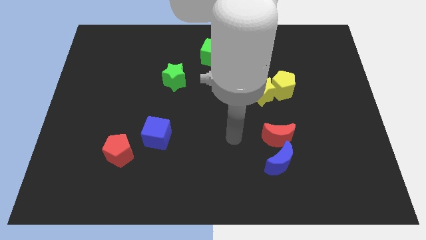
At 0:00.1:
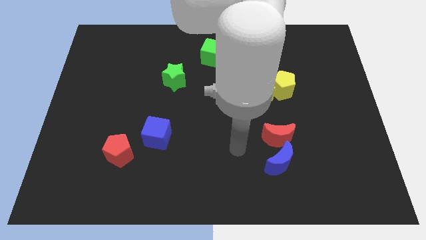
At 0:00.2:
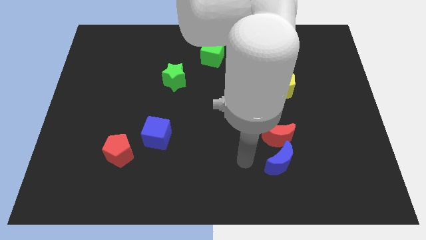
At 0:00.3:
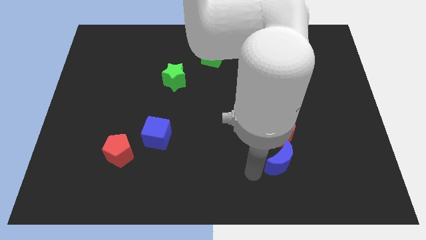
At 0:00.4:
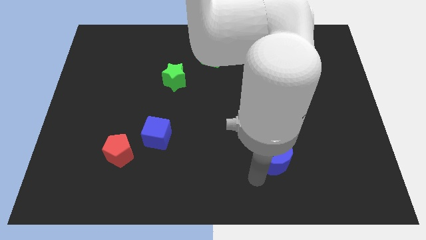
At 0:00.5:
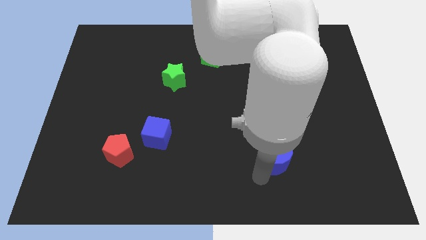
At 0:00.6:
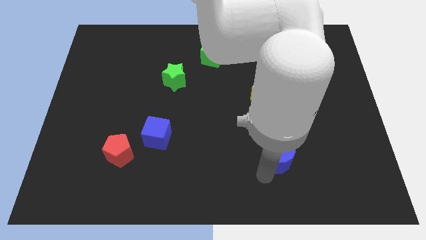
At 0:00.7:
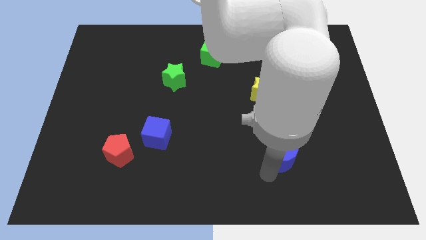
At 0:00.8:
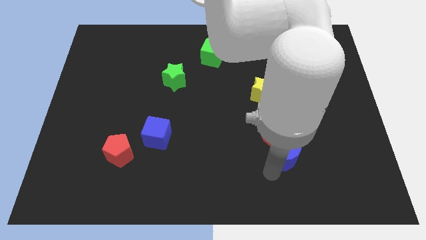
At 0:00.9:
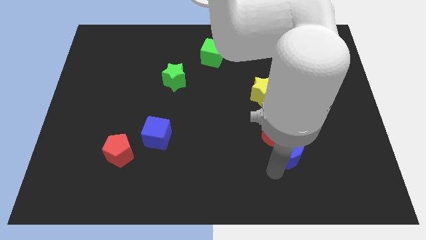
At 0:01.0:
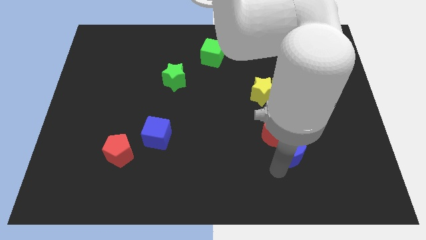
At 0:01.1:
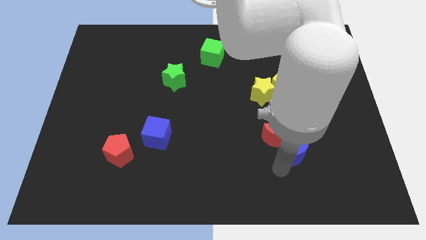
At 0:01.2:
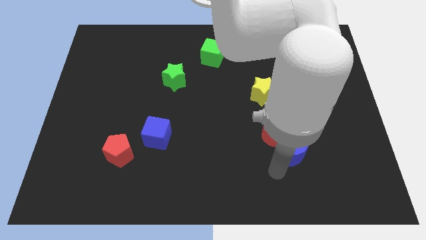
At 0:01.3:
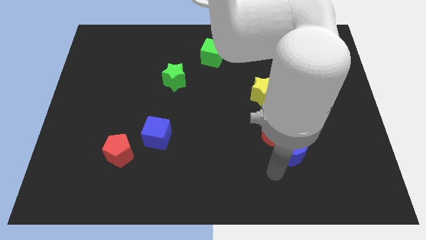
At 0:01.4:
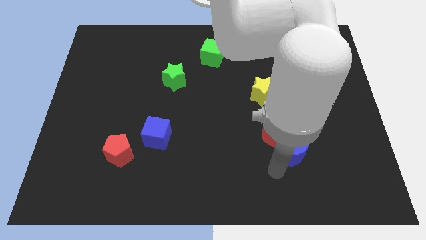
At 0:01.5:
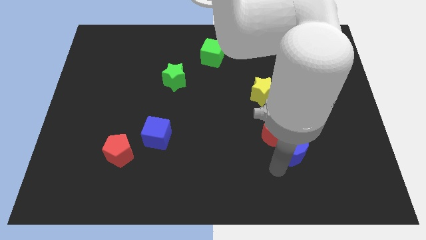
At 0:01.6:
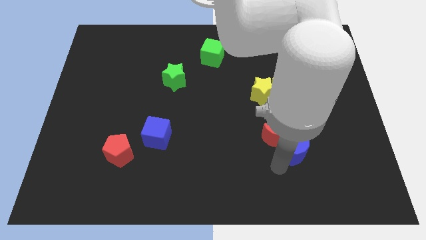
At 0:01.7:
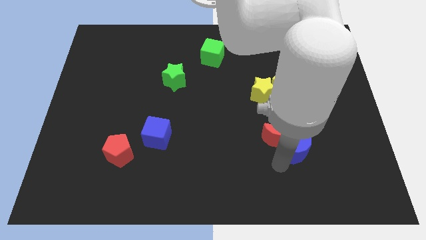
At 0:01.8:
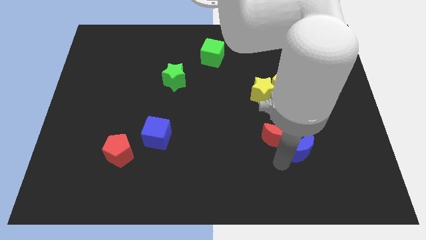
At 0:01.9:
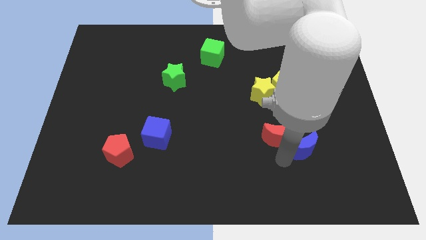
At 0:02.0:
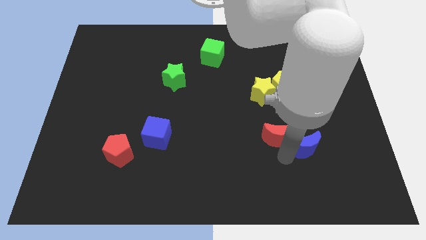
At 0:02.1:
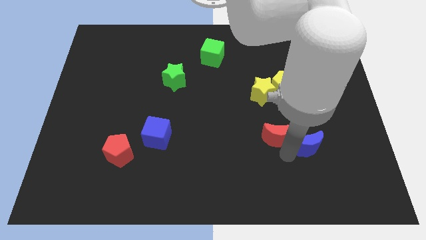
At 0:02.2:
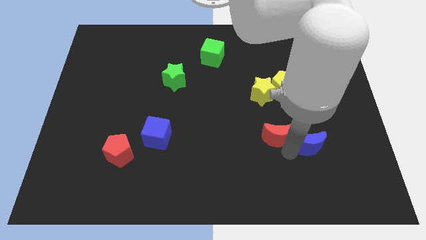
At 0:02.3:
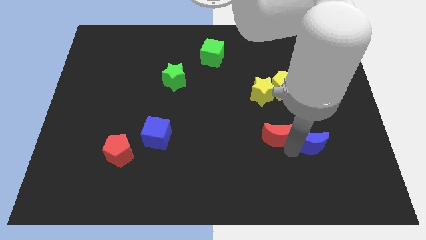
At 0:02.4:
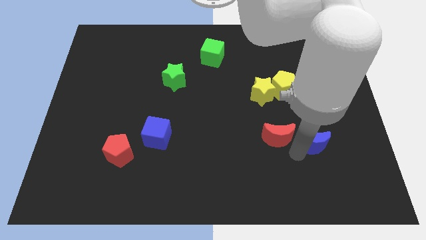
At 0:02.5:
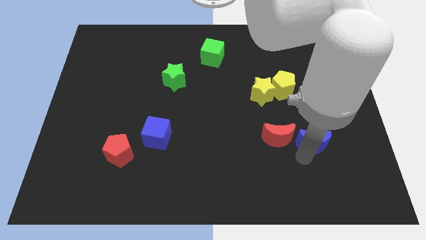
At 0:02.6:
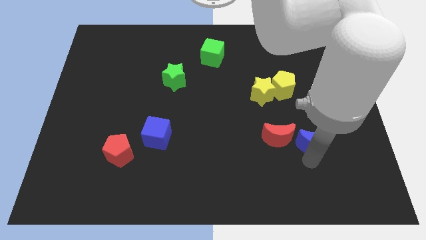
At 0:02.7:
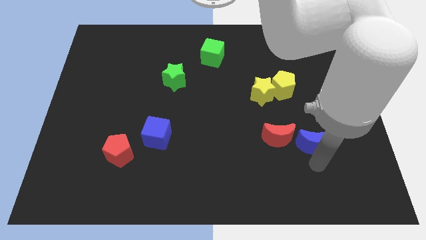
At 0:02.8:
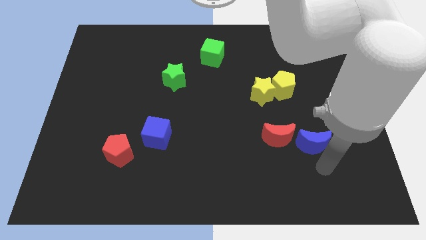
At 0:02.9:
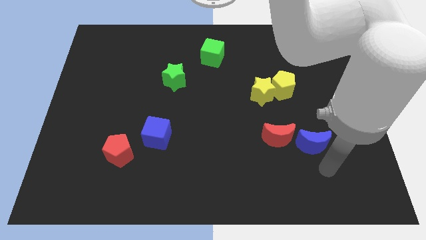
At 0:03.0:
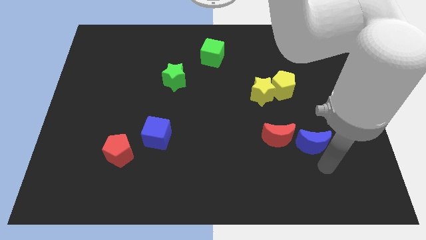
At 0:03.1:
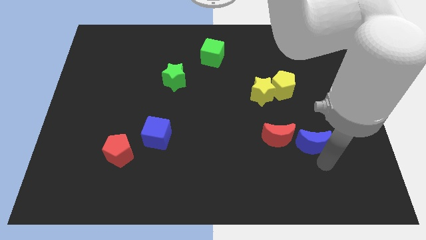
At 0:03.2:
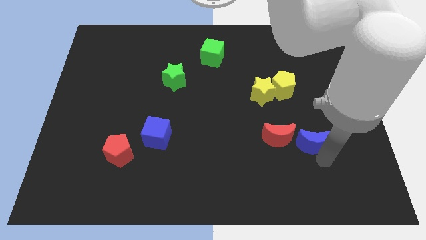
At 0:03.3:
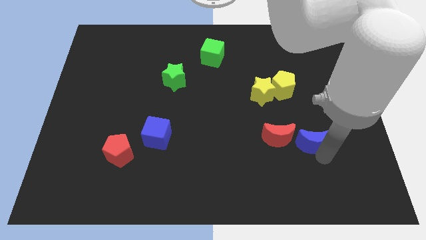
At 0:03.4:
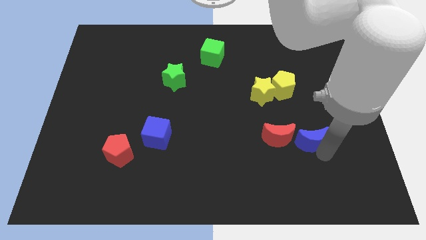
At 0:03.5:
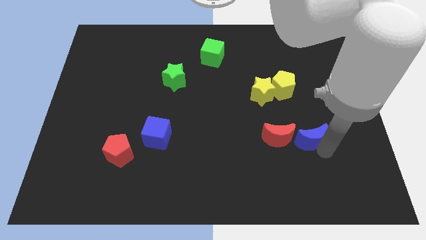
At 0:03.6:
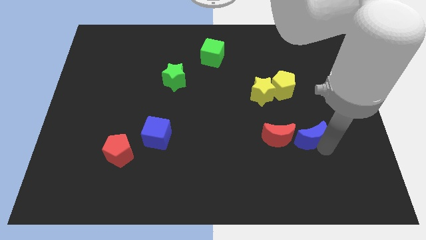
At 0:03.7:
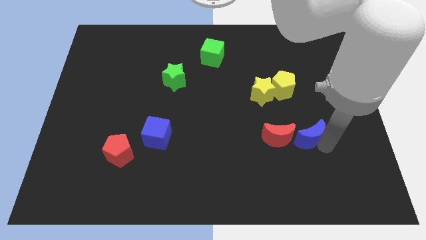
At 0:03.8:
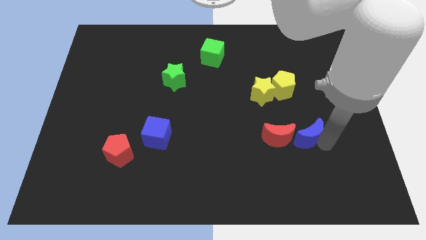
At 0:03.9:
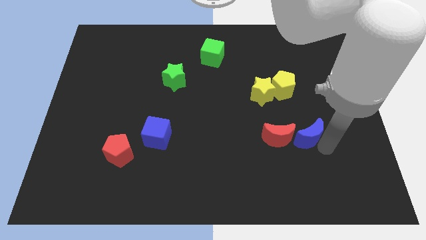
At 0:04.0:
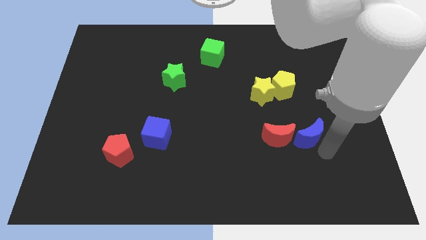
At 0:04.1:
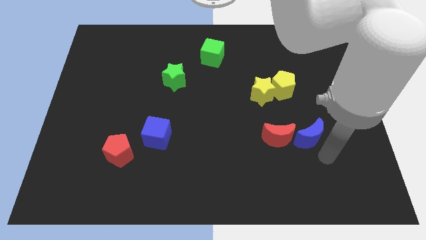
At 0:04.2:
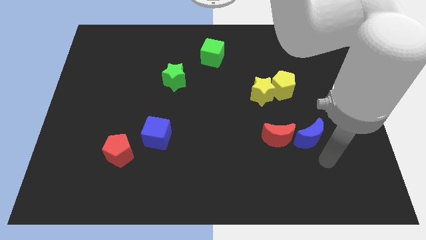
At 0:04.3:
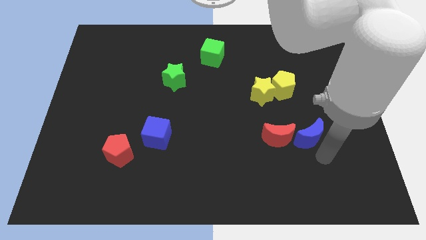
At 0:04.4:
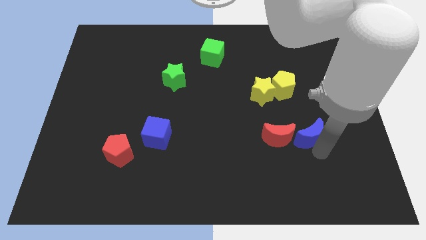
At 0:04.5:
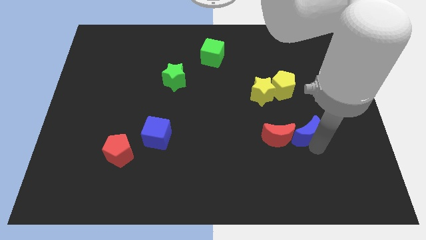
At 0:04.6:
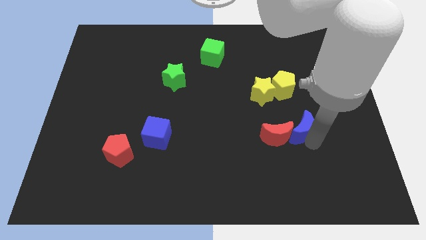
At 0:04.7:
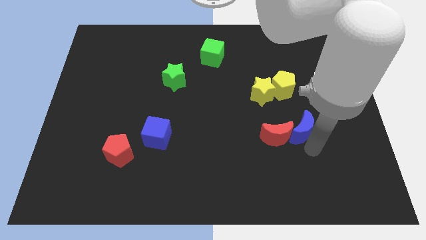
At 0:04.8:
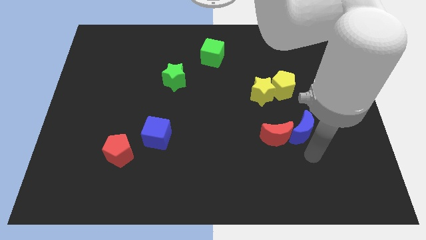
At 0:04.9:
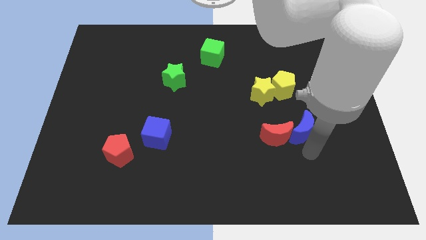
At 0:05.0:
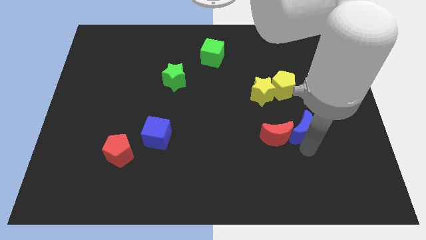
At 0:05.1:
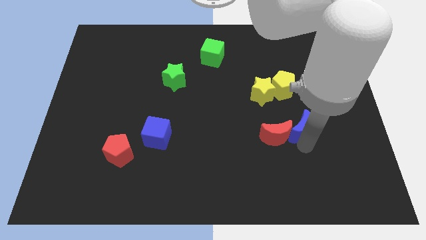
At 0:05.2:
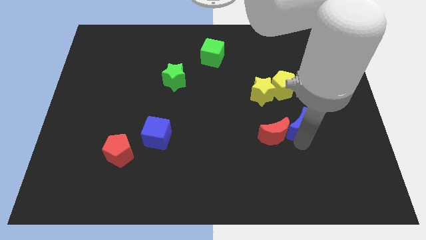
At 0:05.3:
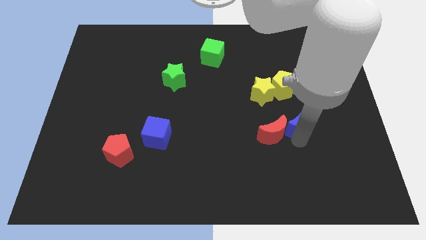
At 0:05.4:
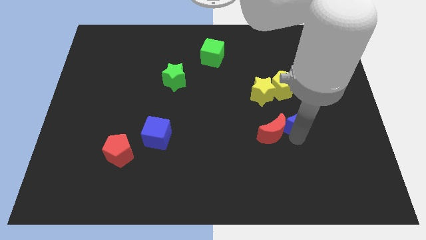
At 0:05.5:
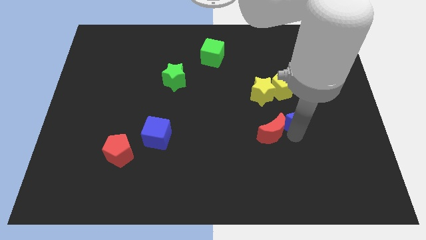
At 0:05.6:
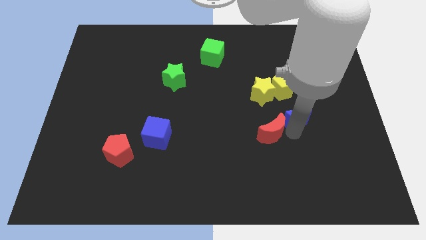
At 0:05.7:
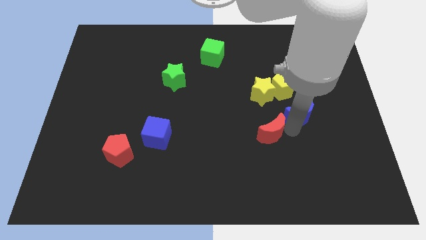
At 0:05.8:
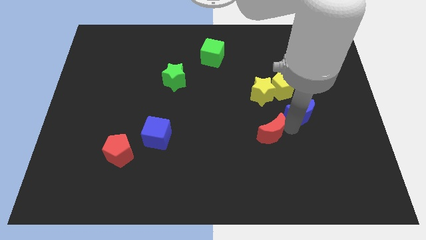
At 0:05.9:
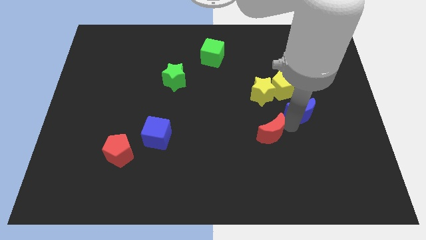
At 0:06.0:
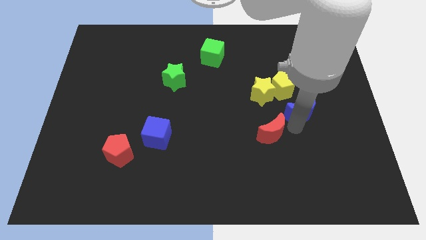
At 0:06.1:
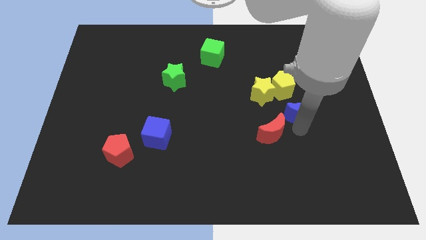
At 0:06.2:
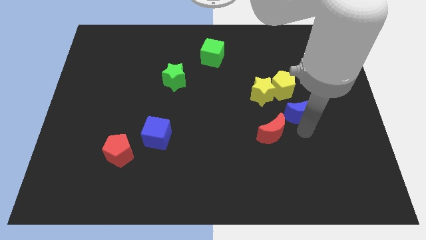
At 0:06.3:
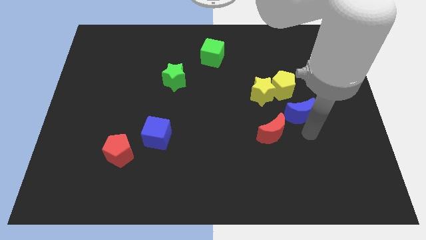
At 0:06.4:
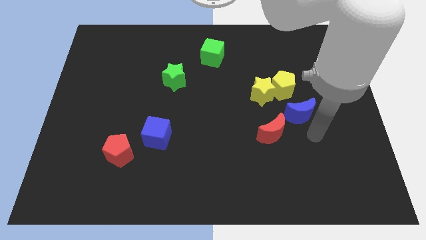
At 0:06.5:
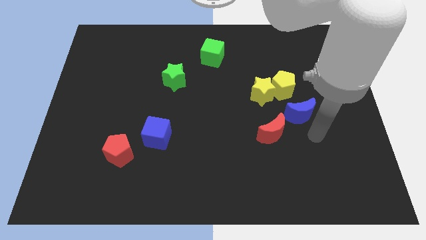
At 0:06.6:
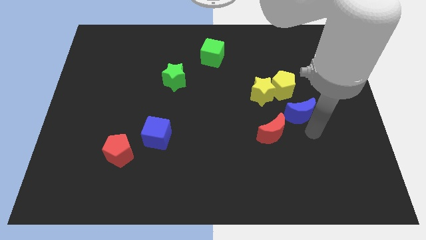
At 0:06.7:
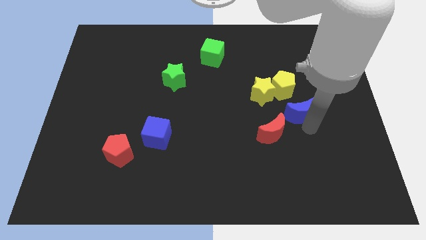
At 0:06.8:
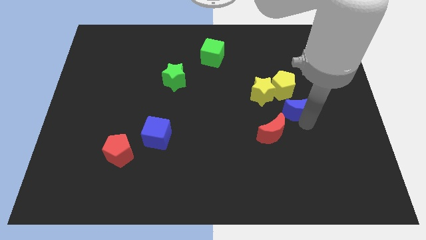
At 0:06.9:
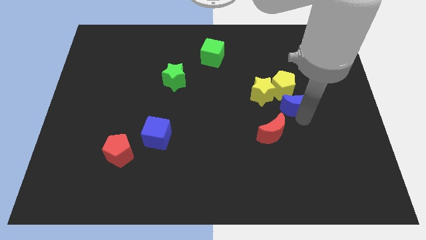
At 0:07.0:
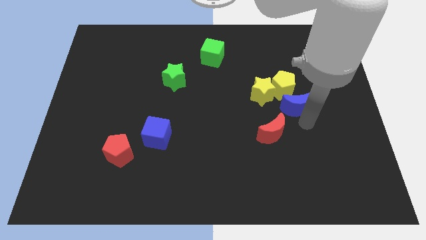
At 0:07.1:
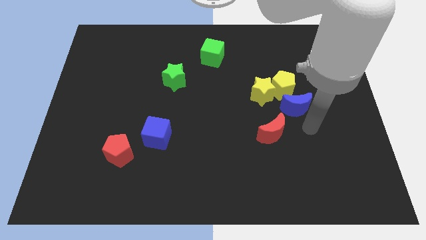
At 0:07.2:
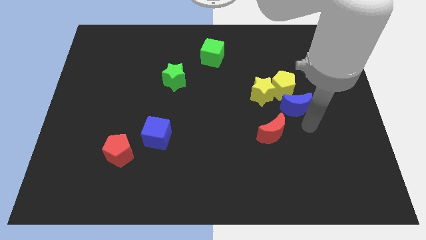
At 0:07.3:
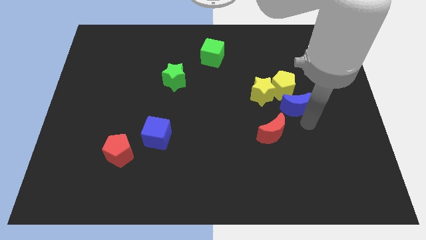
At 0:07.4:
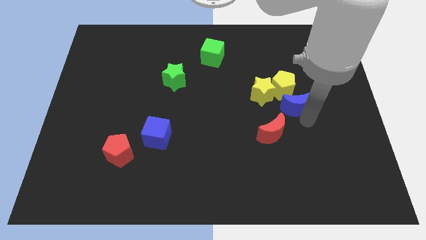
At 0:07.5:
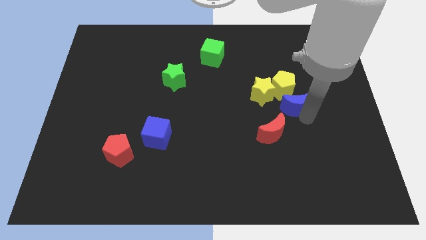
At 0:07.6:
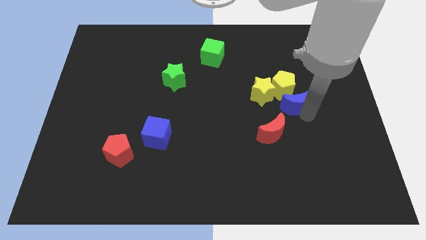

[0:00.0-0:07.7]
slide the blue moon towards the yellow pentagon

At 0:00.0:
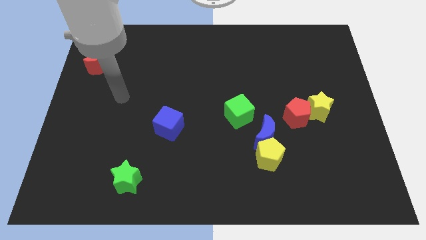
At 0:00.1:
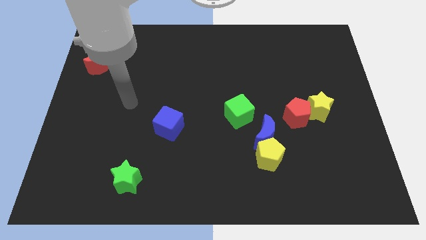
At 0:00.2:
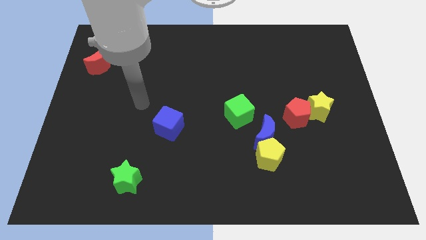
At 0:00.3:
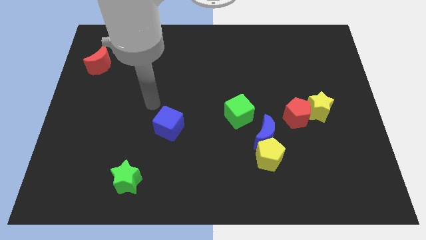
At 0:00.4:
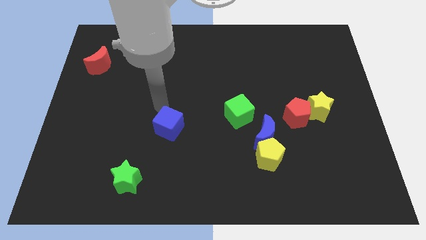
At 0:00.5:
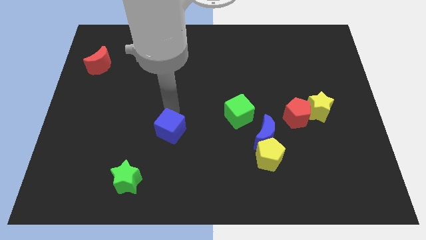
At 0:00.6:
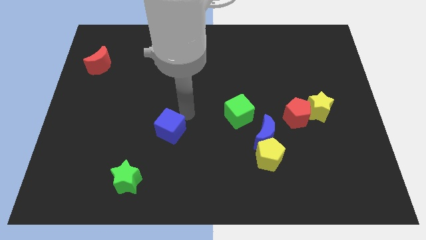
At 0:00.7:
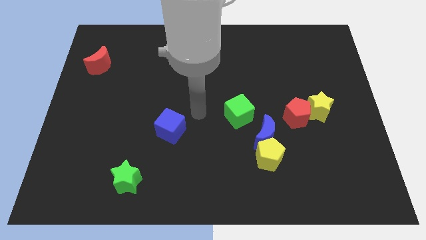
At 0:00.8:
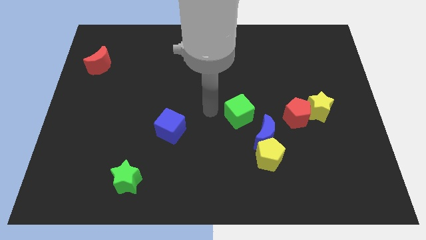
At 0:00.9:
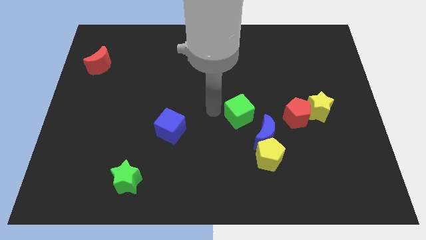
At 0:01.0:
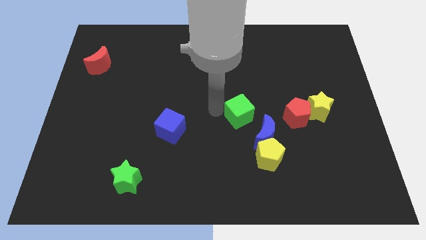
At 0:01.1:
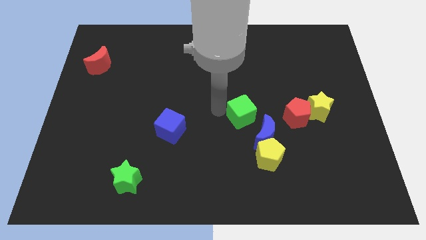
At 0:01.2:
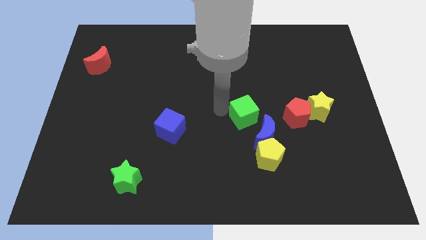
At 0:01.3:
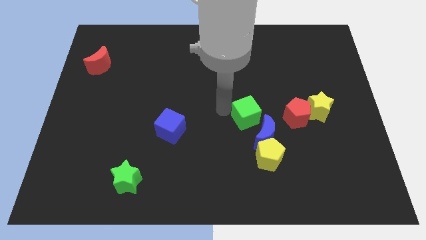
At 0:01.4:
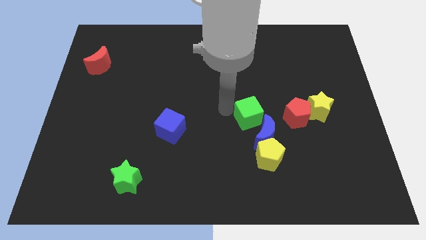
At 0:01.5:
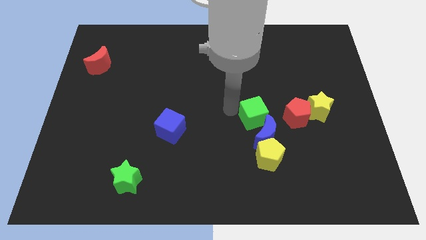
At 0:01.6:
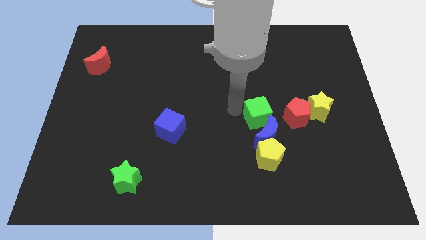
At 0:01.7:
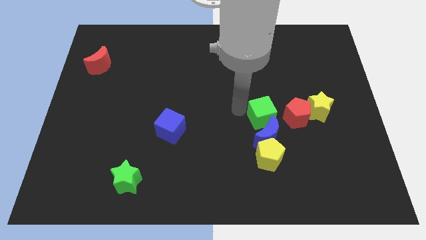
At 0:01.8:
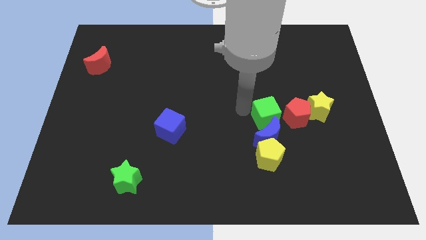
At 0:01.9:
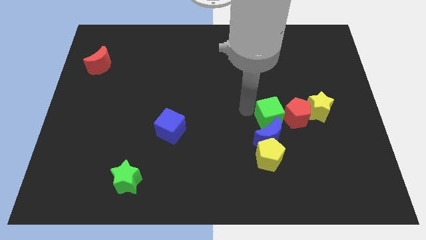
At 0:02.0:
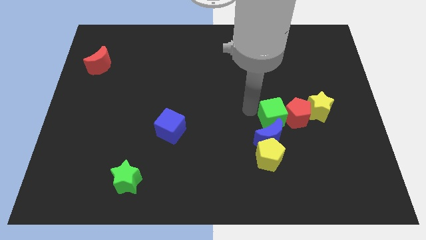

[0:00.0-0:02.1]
push the green cube towards the red pentagon
